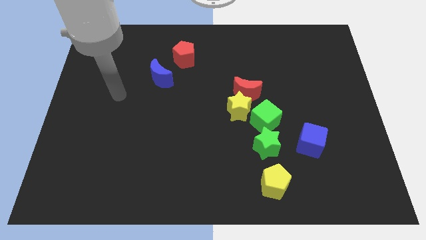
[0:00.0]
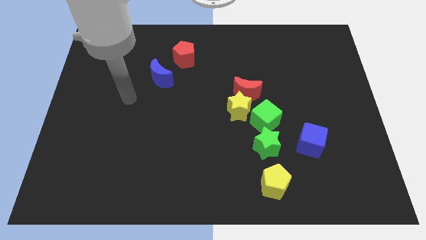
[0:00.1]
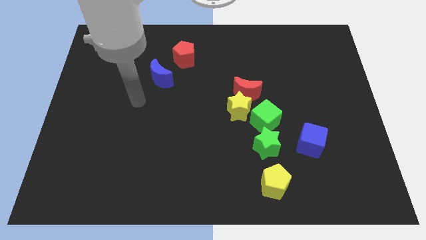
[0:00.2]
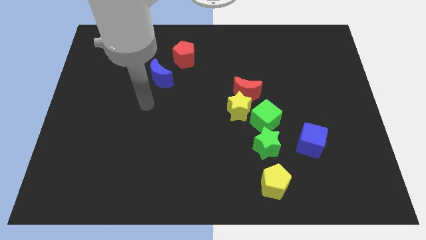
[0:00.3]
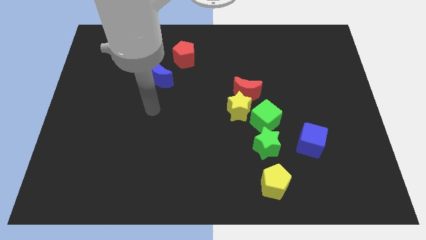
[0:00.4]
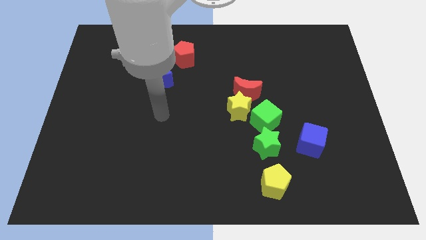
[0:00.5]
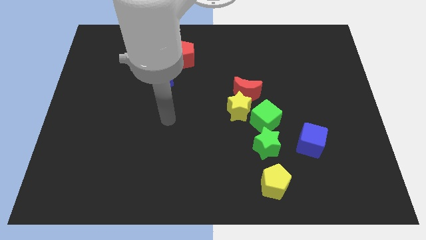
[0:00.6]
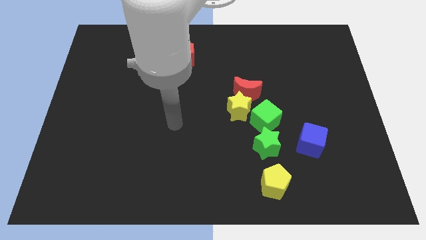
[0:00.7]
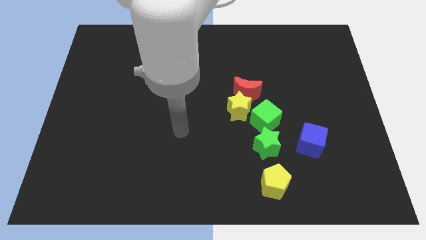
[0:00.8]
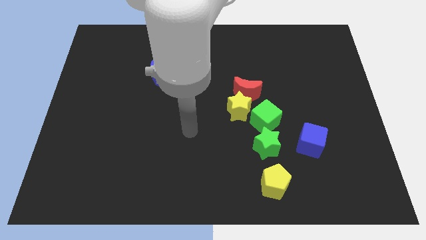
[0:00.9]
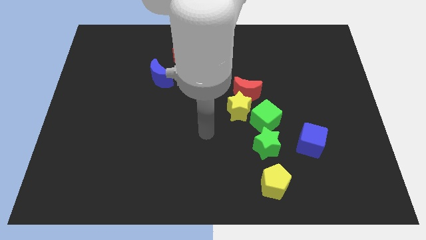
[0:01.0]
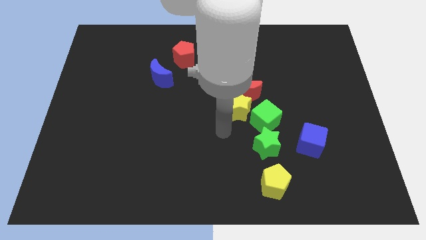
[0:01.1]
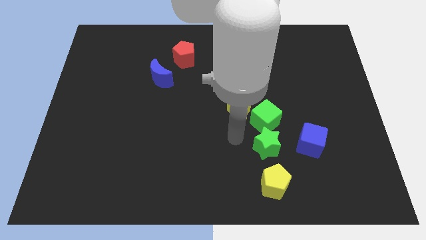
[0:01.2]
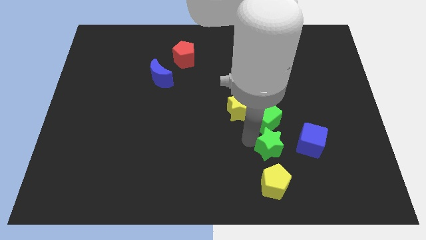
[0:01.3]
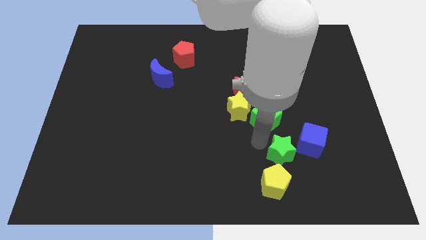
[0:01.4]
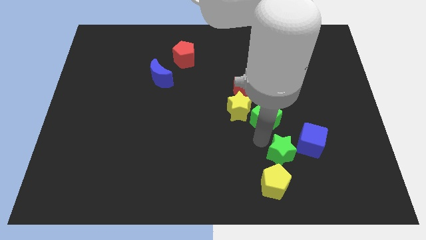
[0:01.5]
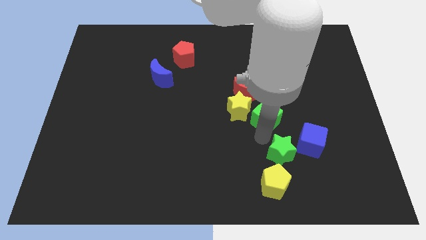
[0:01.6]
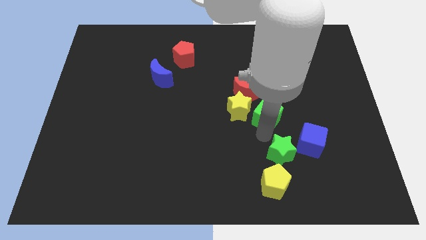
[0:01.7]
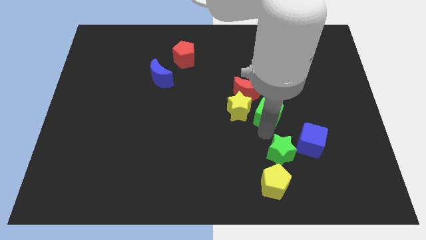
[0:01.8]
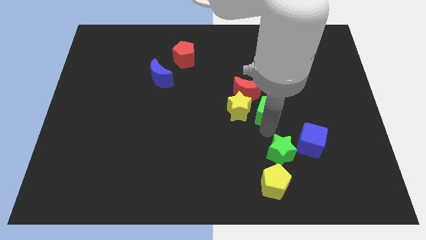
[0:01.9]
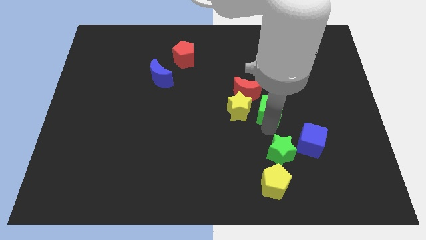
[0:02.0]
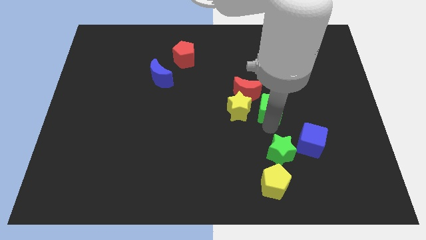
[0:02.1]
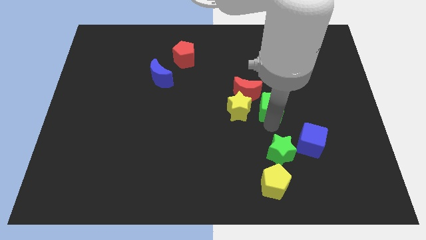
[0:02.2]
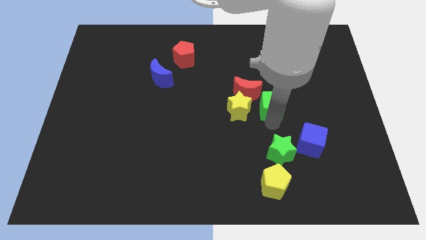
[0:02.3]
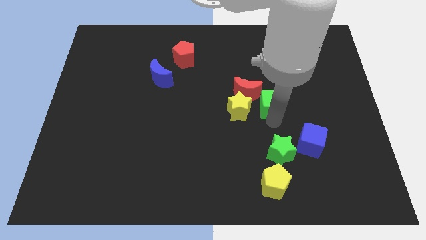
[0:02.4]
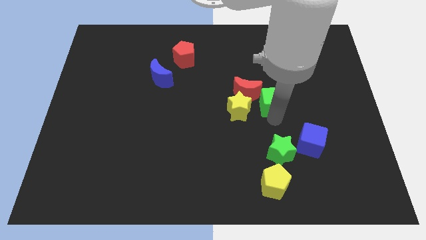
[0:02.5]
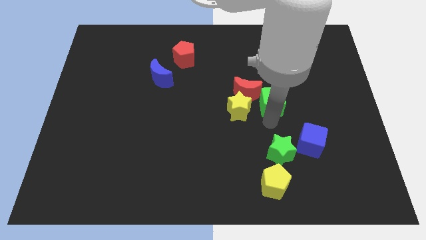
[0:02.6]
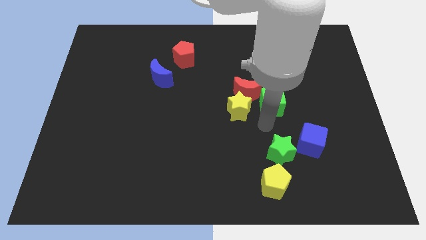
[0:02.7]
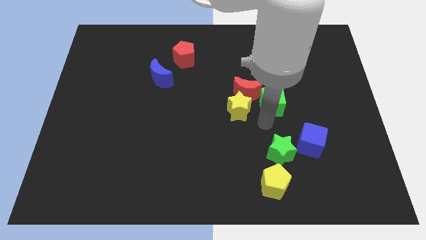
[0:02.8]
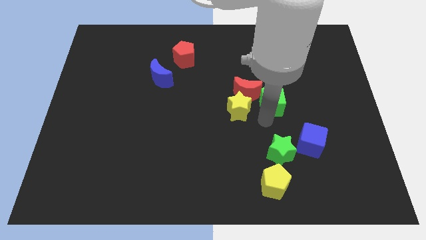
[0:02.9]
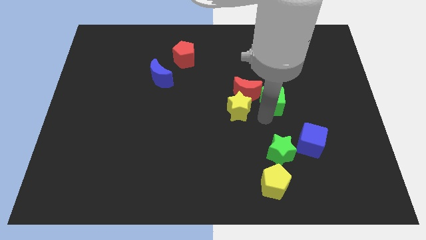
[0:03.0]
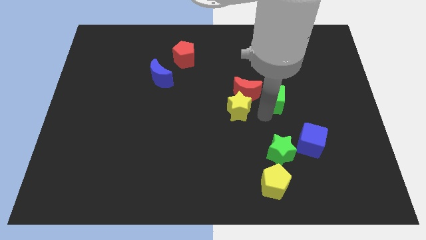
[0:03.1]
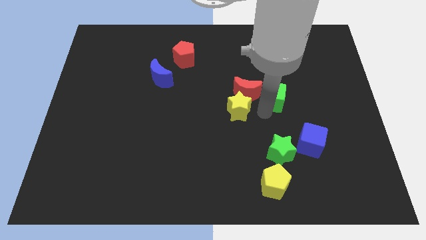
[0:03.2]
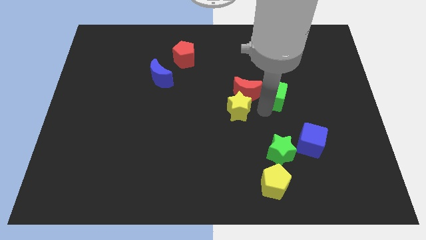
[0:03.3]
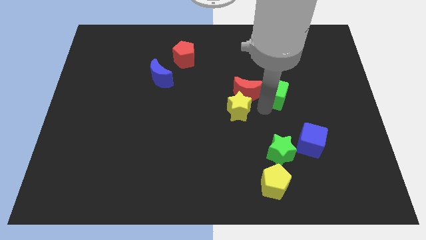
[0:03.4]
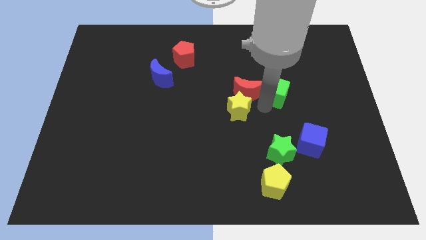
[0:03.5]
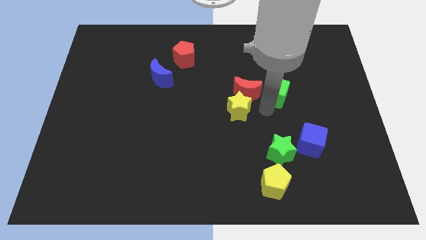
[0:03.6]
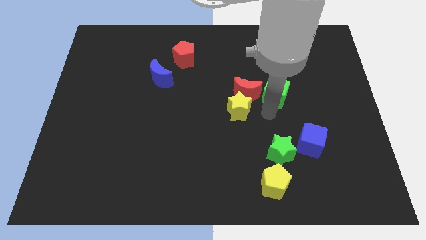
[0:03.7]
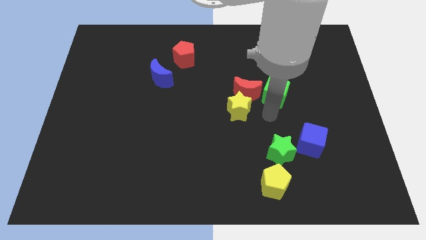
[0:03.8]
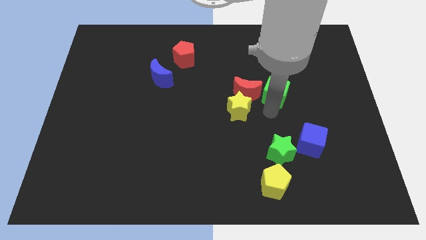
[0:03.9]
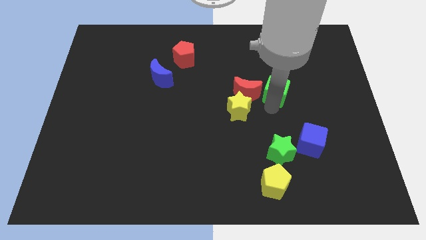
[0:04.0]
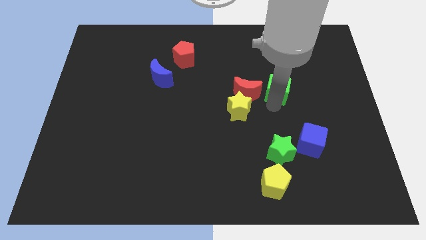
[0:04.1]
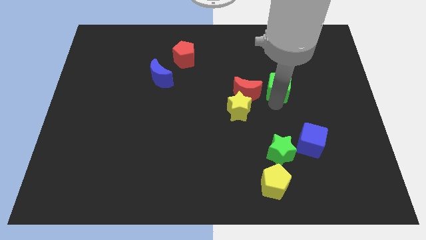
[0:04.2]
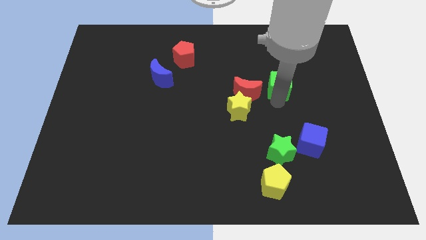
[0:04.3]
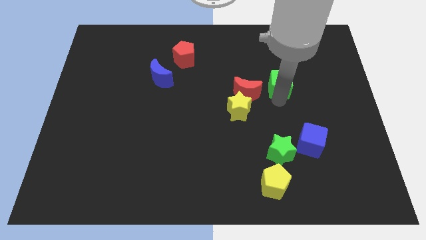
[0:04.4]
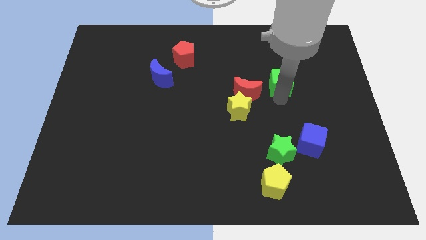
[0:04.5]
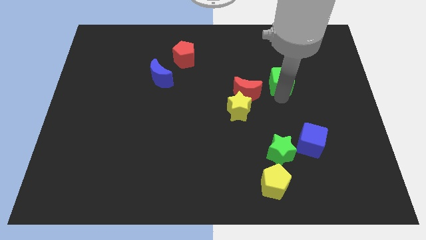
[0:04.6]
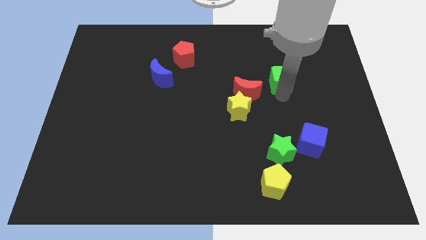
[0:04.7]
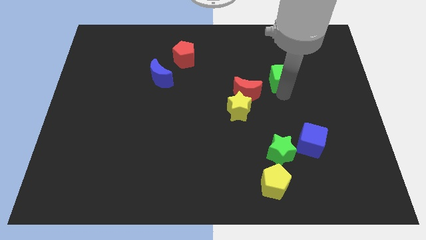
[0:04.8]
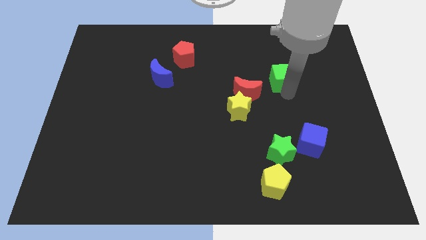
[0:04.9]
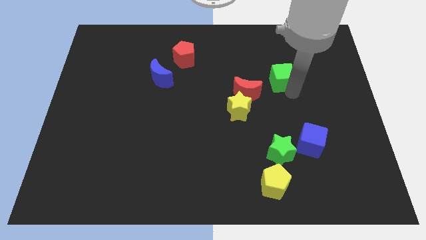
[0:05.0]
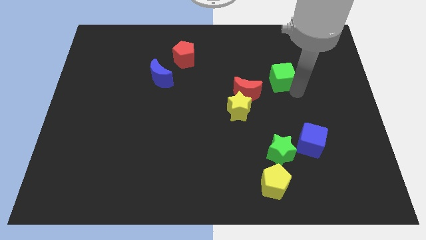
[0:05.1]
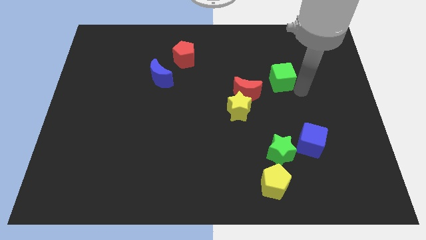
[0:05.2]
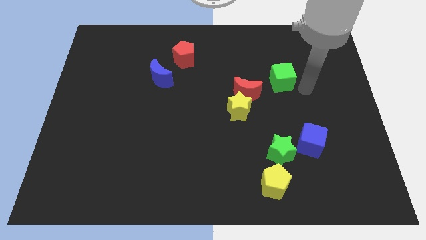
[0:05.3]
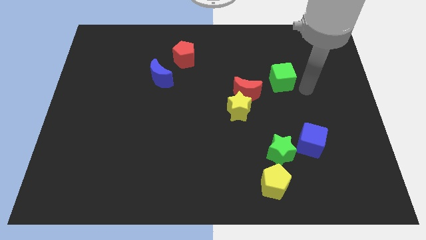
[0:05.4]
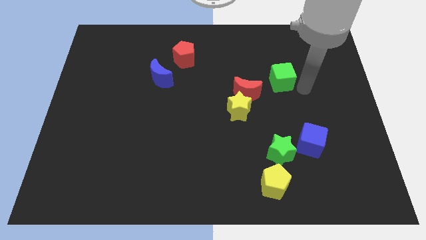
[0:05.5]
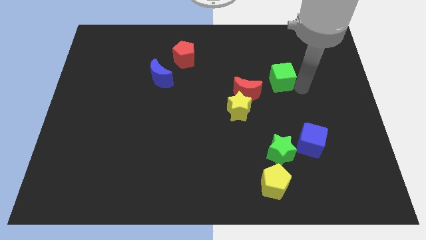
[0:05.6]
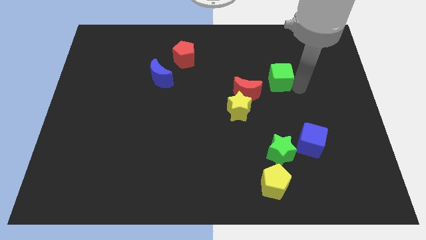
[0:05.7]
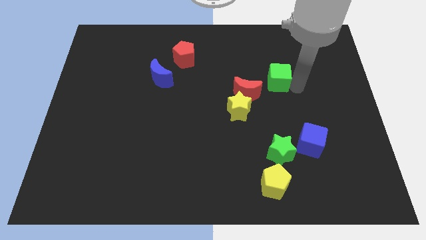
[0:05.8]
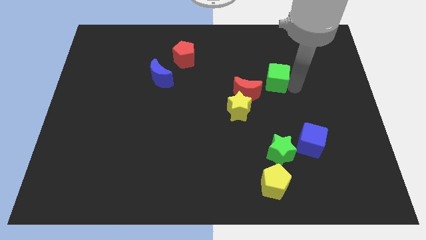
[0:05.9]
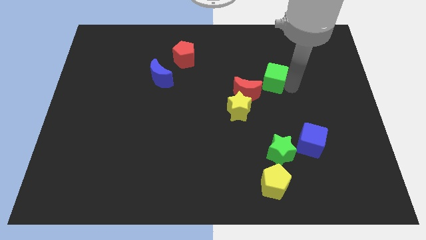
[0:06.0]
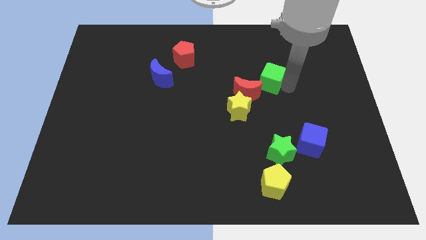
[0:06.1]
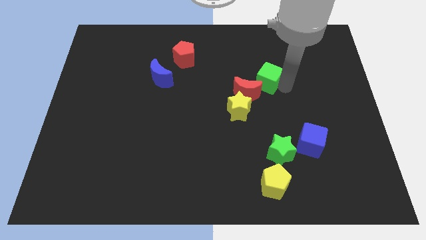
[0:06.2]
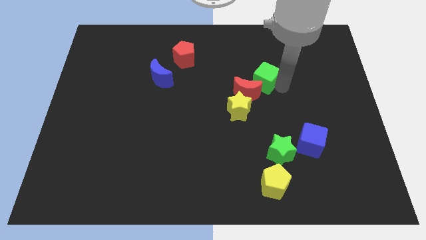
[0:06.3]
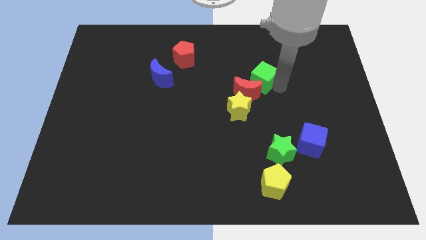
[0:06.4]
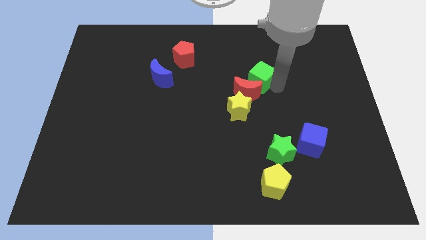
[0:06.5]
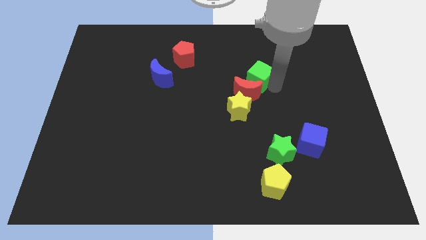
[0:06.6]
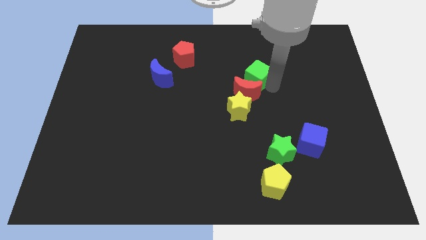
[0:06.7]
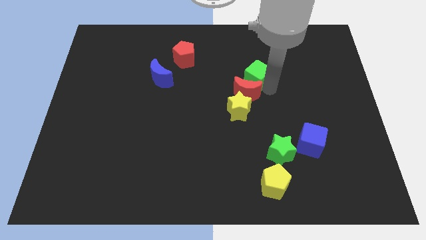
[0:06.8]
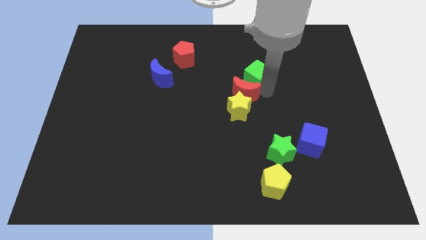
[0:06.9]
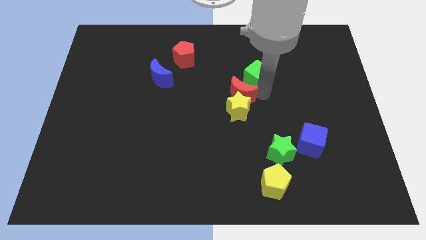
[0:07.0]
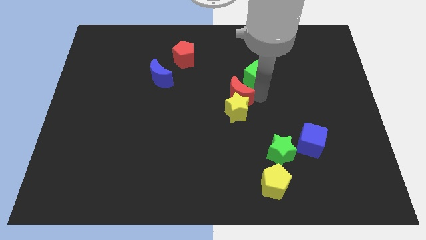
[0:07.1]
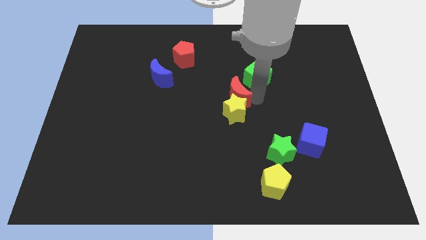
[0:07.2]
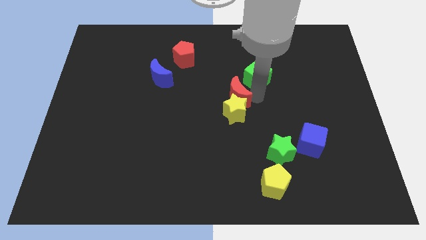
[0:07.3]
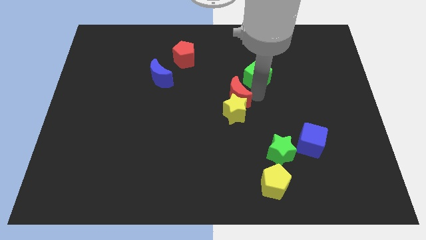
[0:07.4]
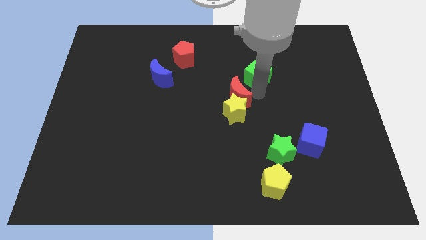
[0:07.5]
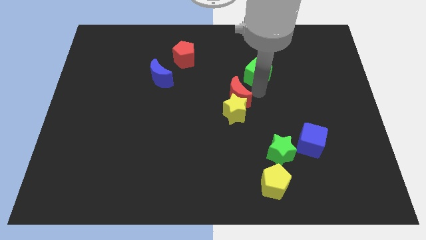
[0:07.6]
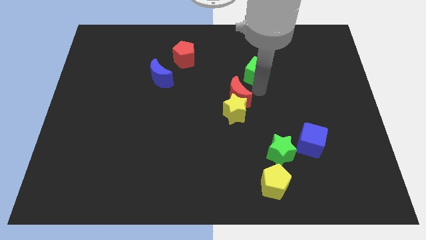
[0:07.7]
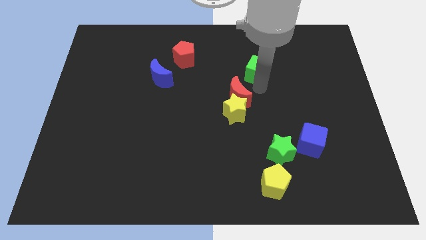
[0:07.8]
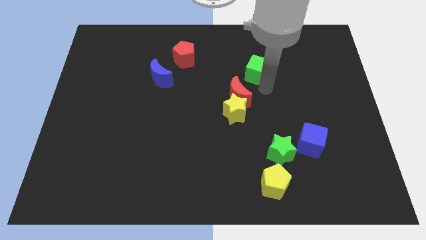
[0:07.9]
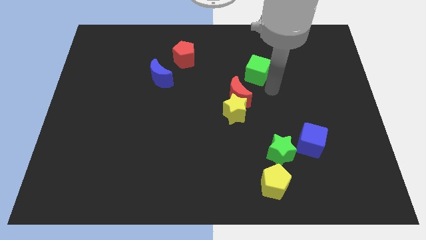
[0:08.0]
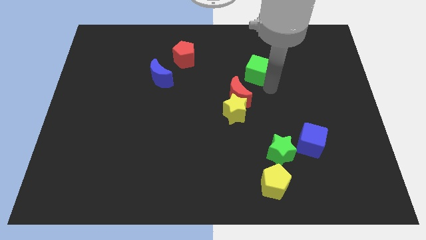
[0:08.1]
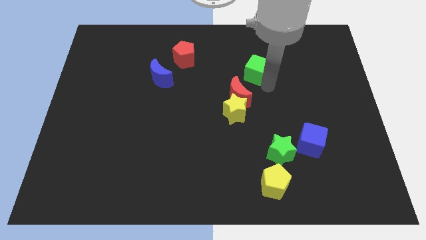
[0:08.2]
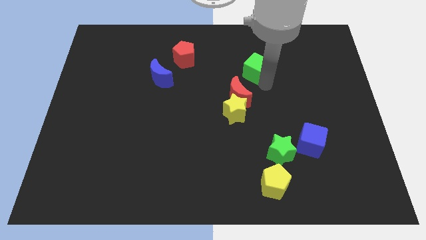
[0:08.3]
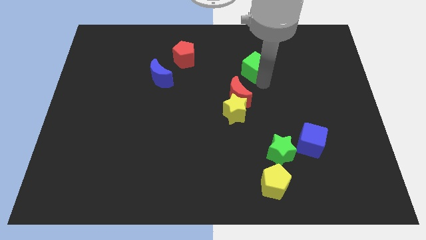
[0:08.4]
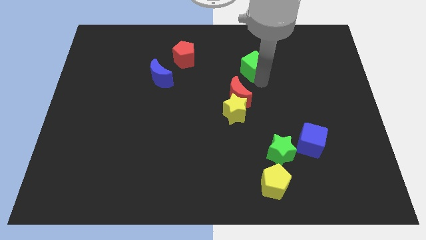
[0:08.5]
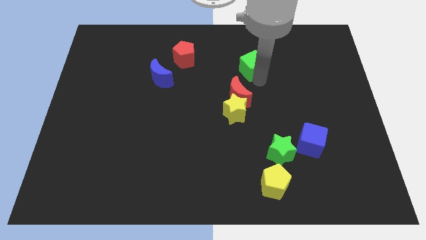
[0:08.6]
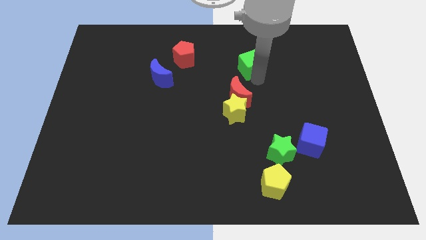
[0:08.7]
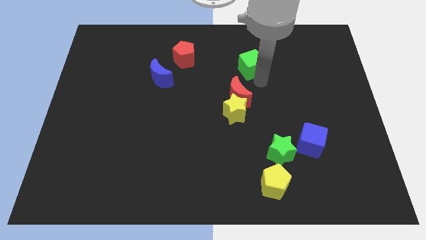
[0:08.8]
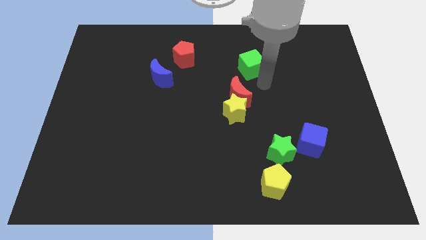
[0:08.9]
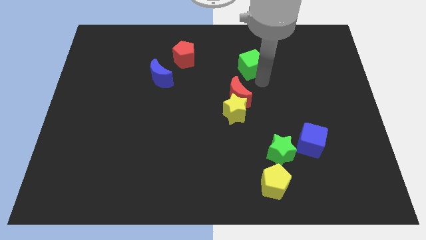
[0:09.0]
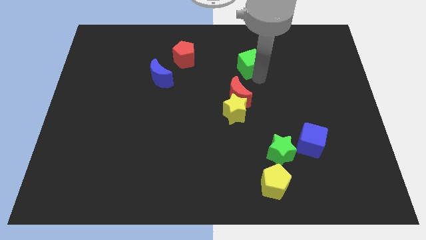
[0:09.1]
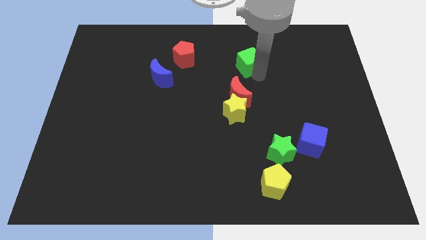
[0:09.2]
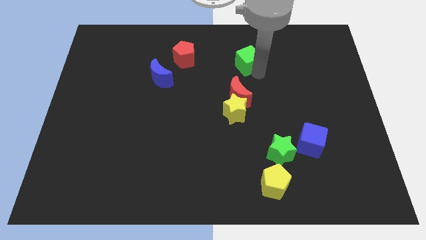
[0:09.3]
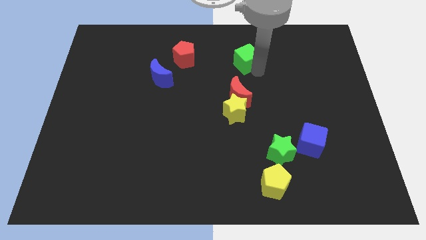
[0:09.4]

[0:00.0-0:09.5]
put the green cube to the right side of the red pentagon
